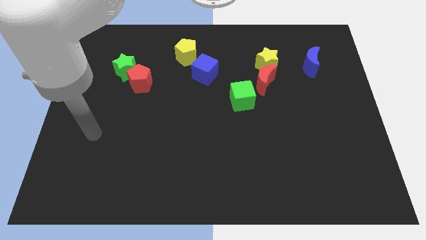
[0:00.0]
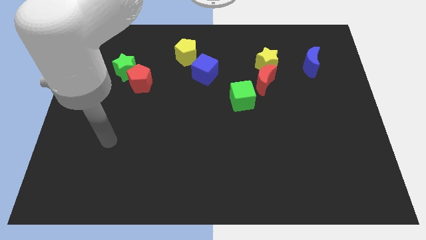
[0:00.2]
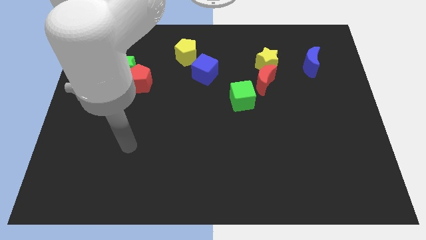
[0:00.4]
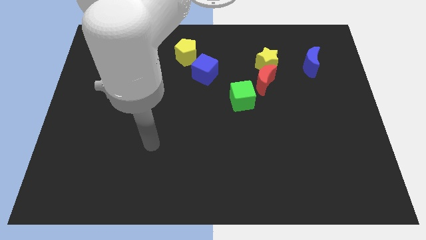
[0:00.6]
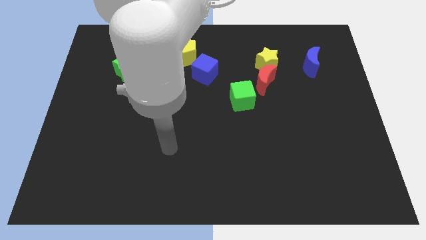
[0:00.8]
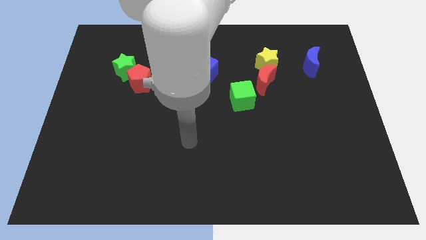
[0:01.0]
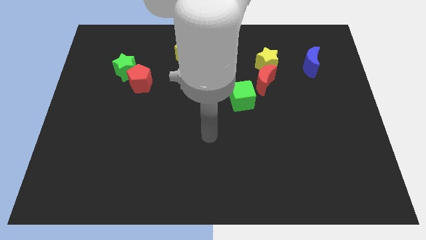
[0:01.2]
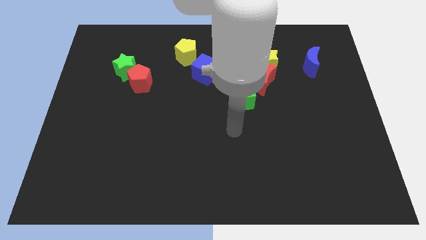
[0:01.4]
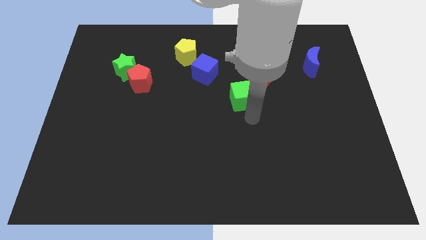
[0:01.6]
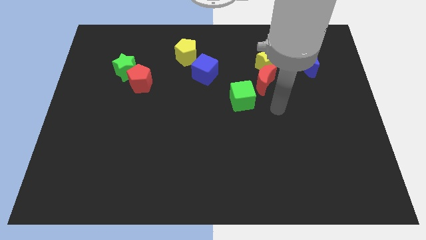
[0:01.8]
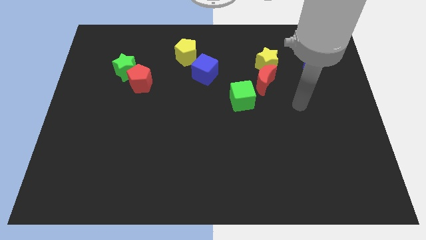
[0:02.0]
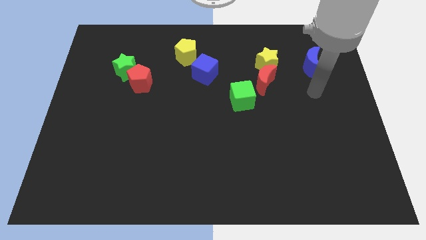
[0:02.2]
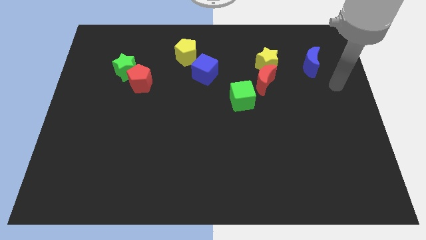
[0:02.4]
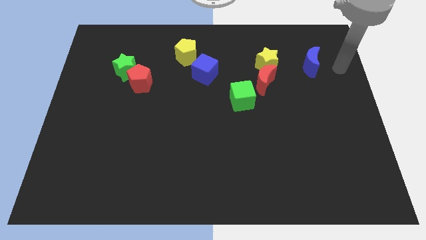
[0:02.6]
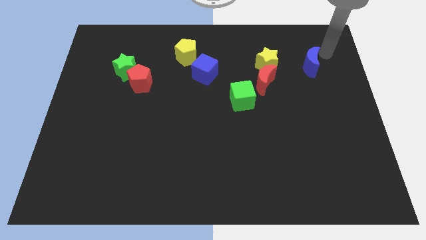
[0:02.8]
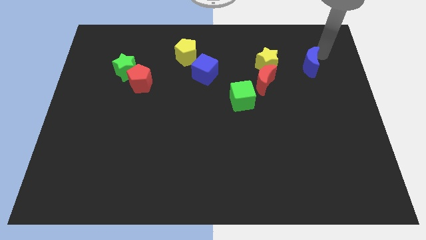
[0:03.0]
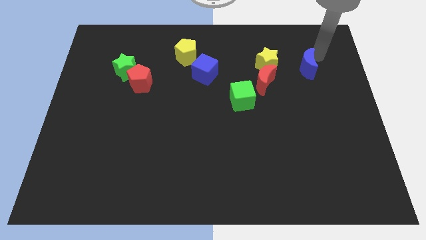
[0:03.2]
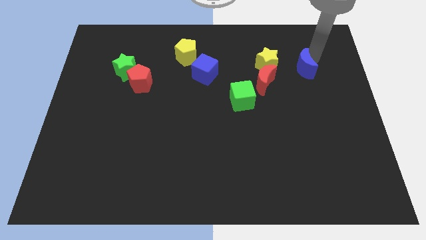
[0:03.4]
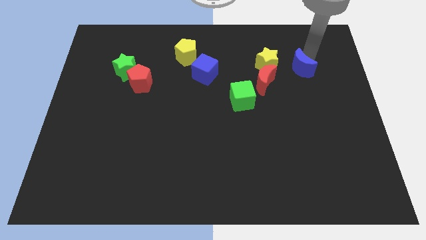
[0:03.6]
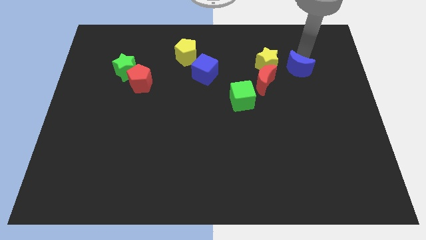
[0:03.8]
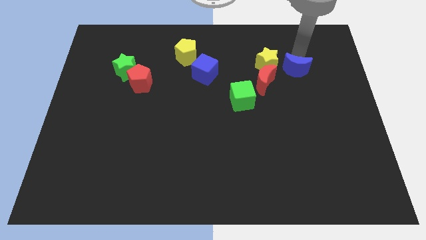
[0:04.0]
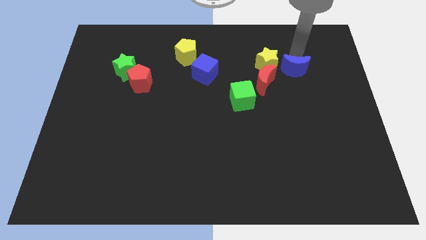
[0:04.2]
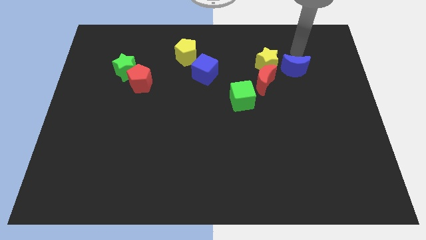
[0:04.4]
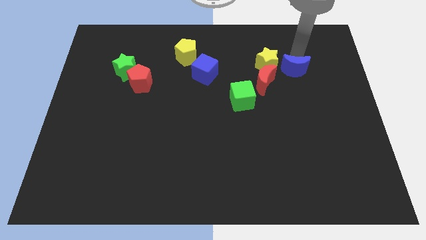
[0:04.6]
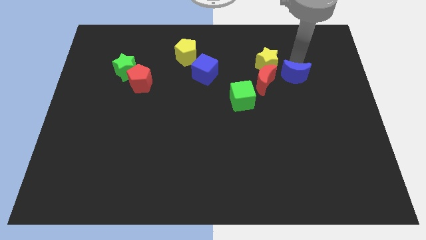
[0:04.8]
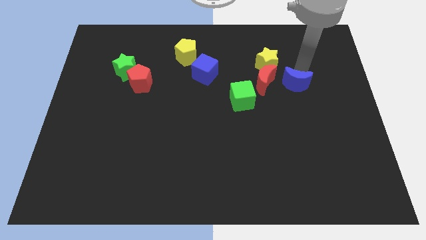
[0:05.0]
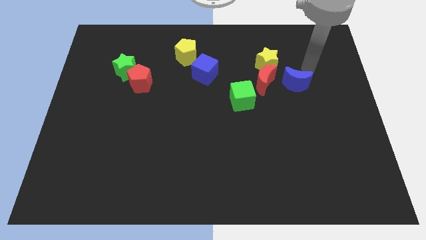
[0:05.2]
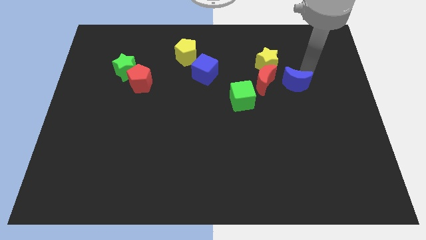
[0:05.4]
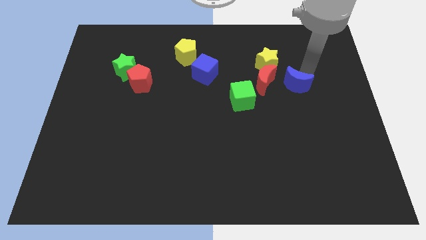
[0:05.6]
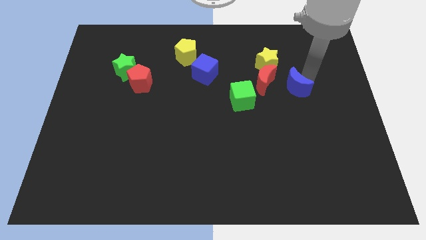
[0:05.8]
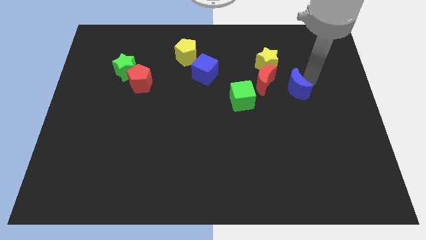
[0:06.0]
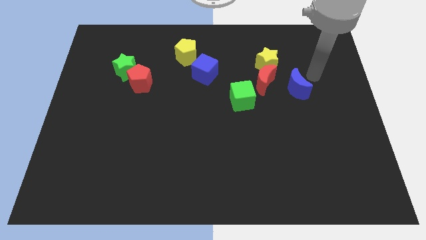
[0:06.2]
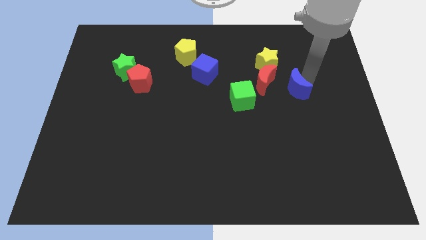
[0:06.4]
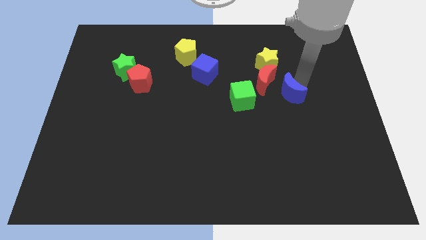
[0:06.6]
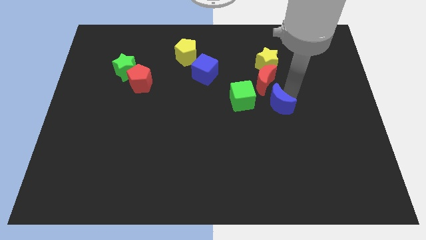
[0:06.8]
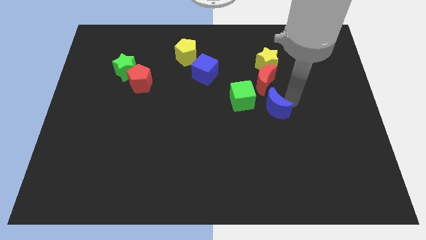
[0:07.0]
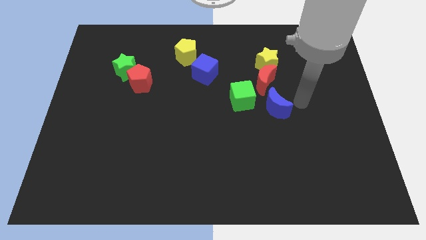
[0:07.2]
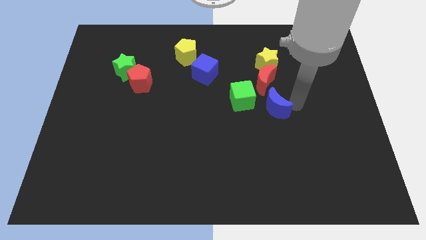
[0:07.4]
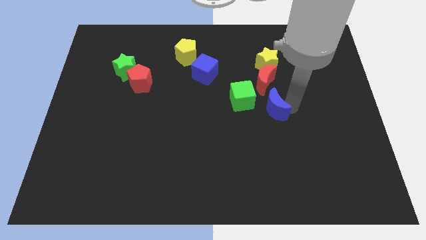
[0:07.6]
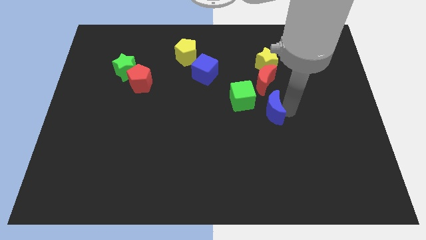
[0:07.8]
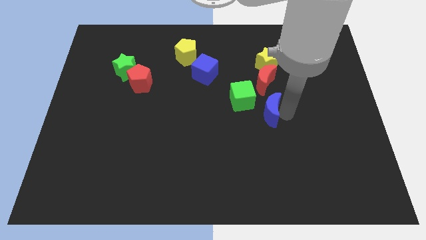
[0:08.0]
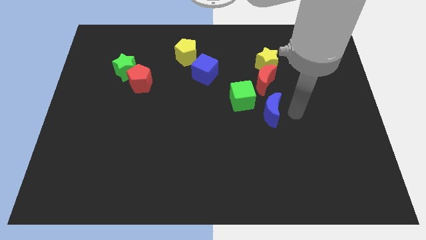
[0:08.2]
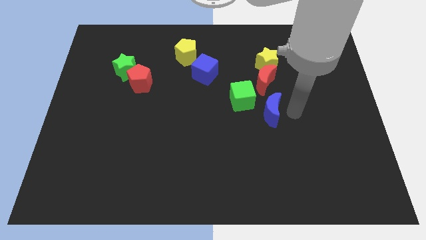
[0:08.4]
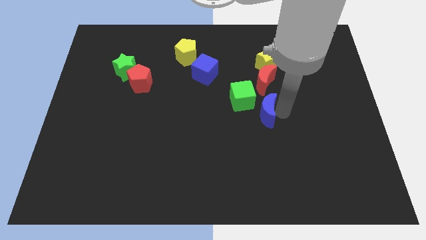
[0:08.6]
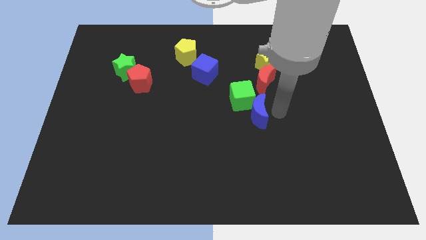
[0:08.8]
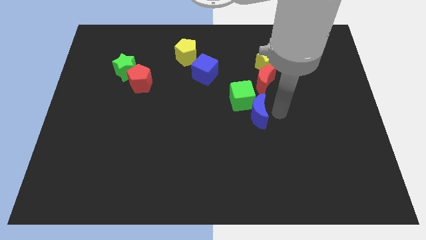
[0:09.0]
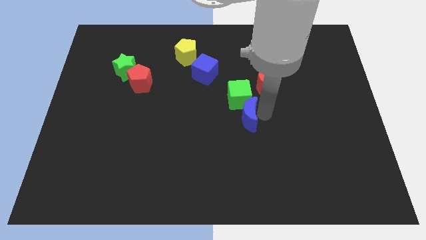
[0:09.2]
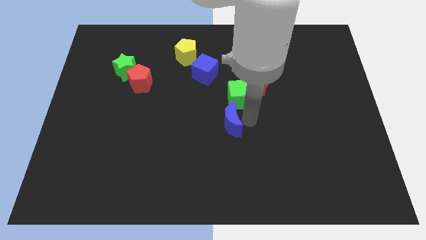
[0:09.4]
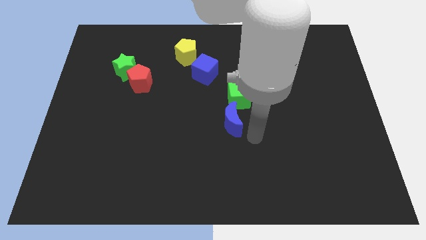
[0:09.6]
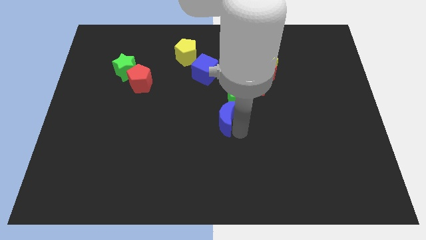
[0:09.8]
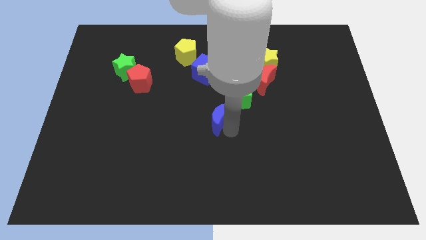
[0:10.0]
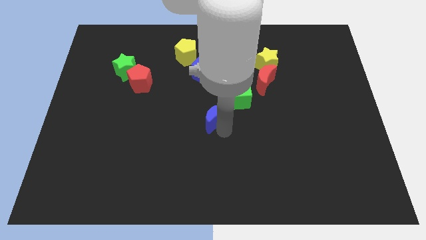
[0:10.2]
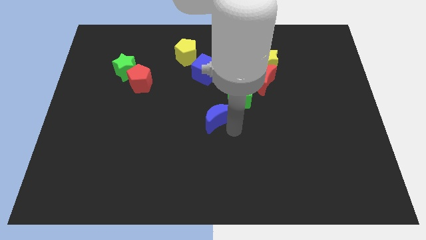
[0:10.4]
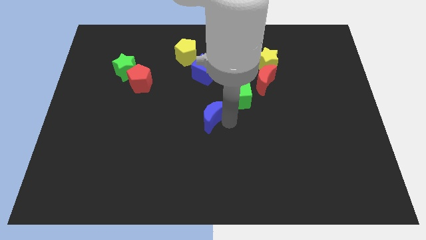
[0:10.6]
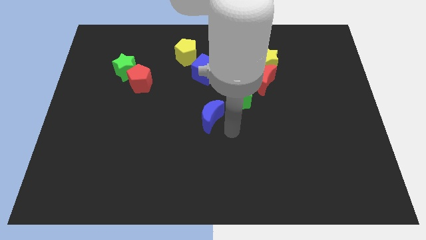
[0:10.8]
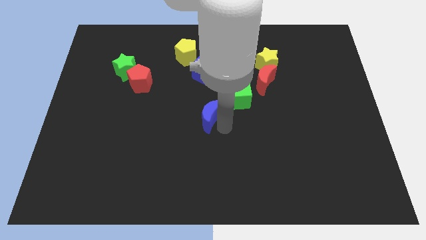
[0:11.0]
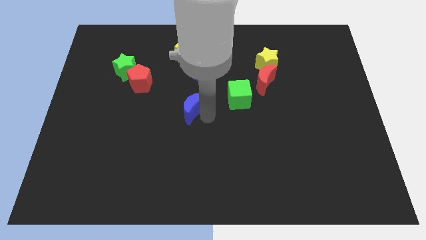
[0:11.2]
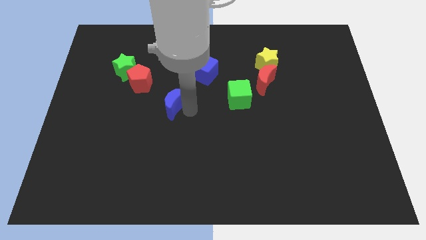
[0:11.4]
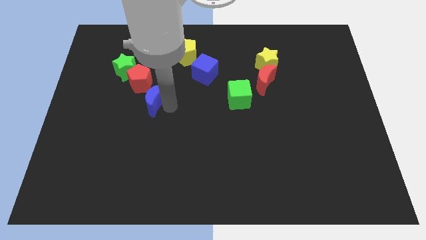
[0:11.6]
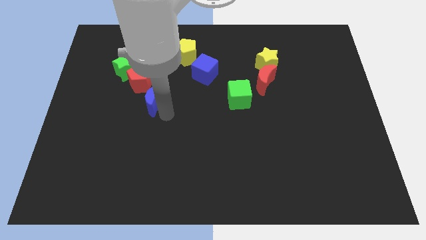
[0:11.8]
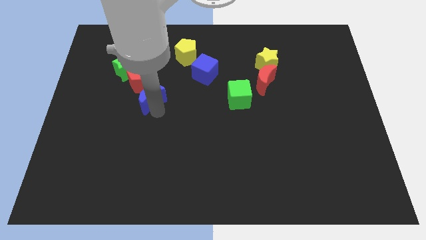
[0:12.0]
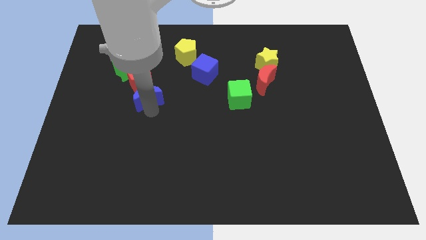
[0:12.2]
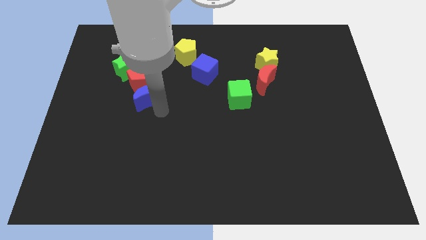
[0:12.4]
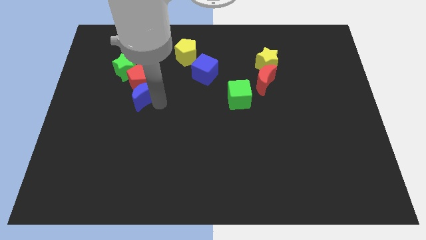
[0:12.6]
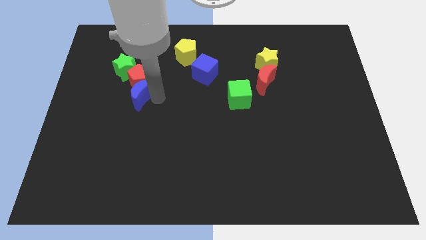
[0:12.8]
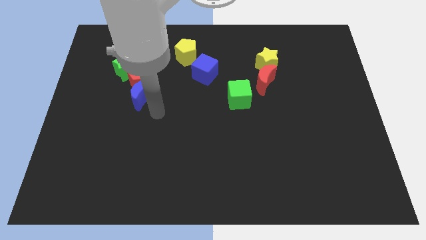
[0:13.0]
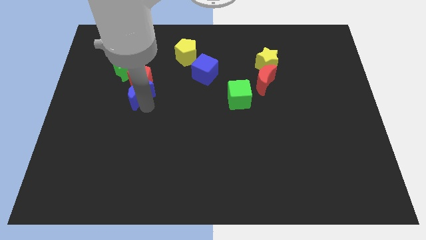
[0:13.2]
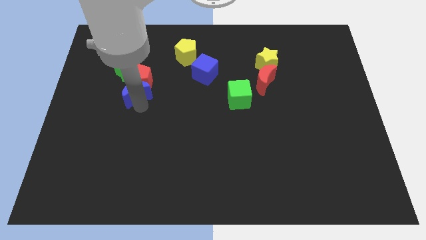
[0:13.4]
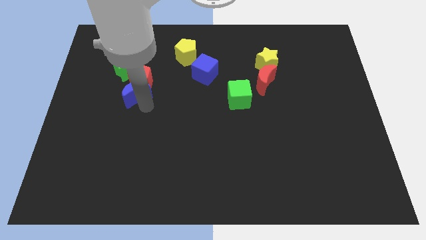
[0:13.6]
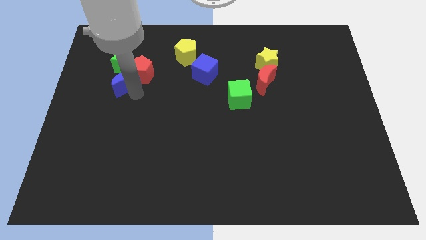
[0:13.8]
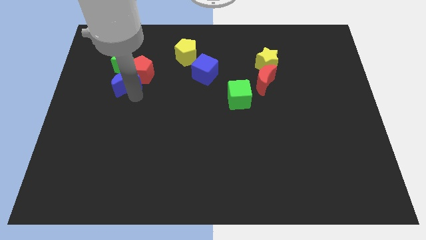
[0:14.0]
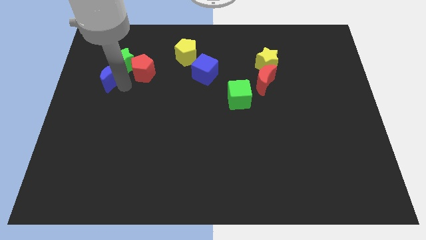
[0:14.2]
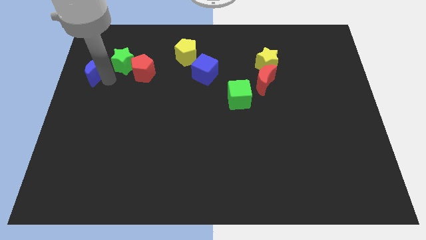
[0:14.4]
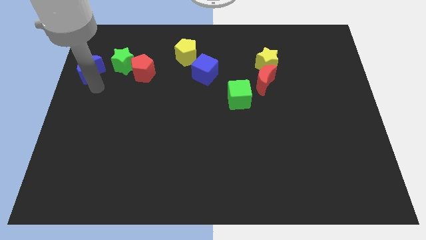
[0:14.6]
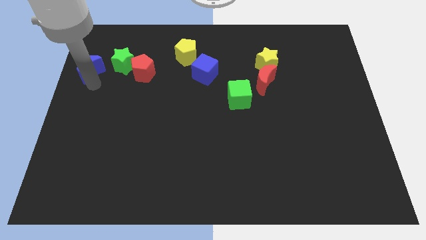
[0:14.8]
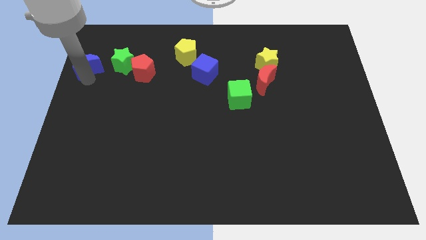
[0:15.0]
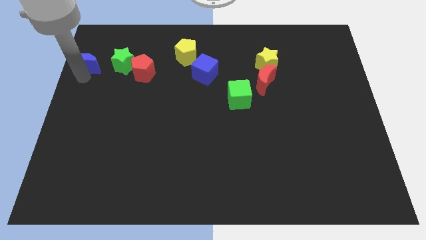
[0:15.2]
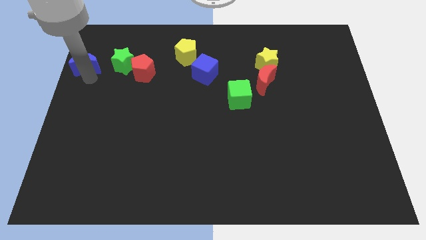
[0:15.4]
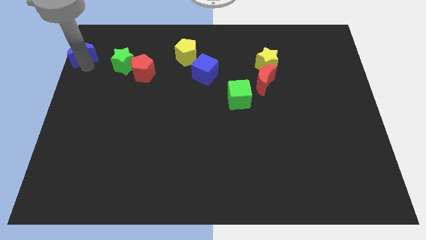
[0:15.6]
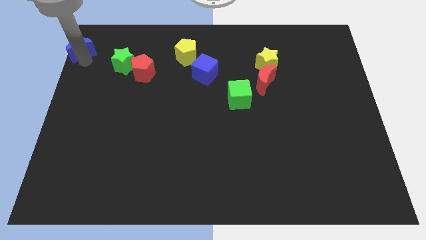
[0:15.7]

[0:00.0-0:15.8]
slide the blue moon to the upper left corner

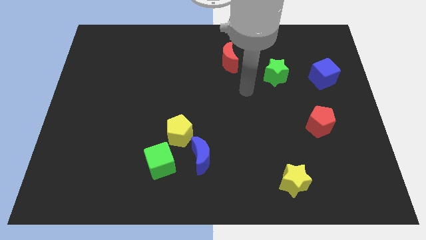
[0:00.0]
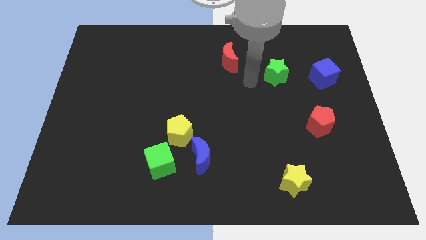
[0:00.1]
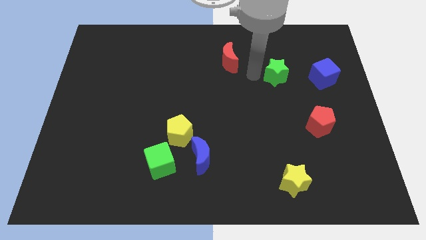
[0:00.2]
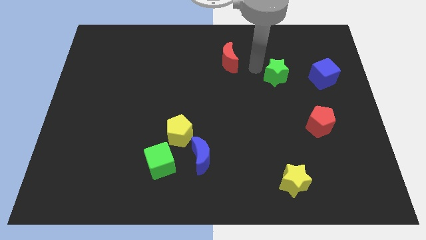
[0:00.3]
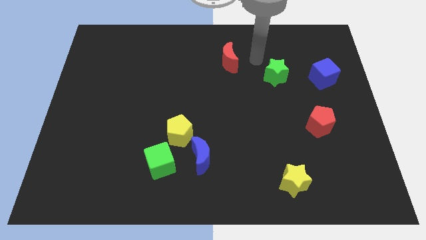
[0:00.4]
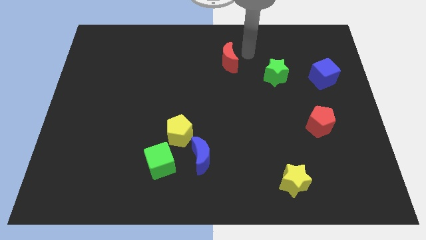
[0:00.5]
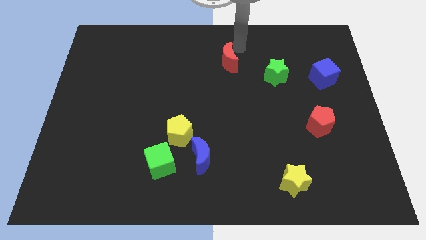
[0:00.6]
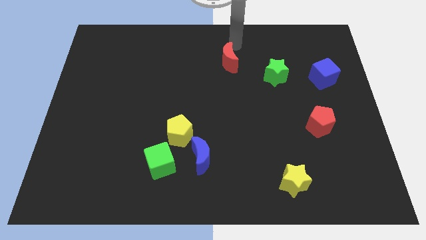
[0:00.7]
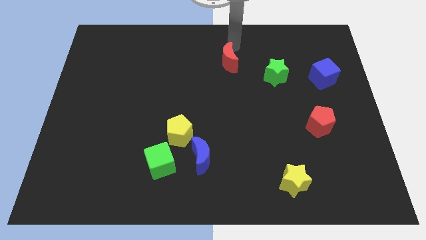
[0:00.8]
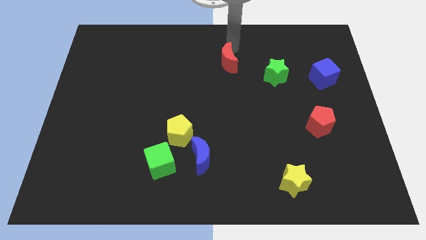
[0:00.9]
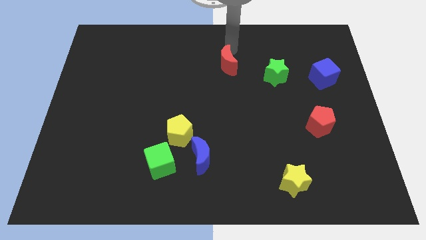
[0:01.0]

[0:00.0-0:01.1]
slide the red moon to the center of the board
